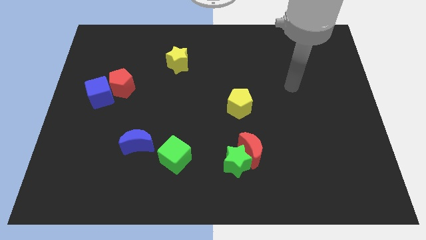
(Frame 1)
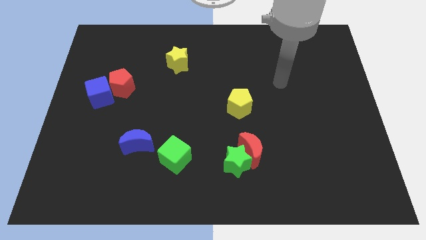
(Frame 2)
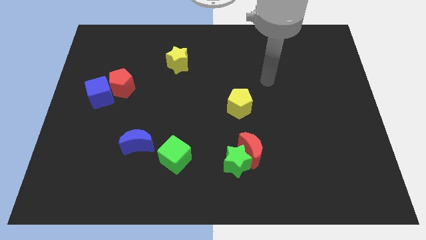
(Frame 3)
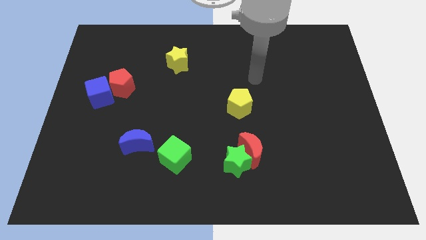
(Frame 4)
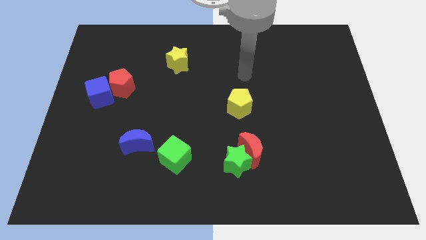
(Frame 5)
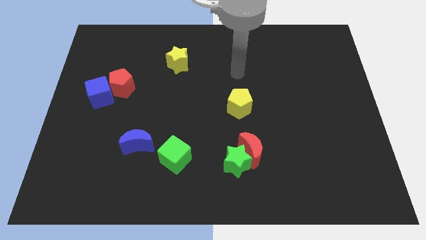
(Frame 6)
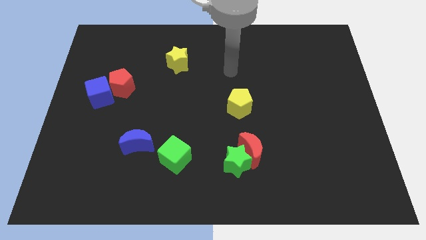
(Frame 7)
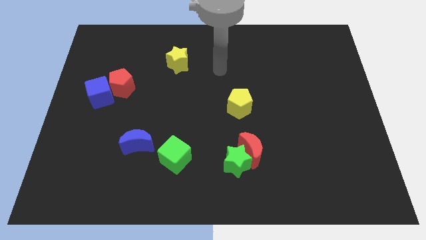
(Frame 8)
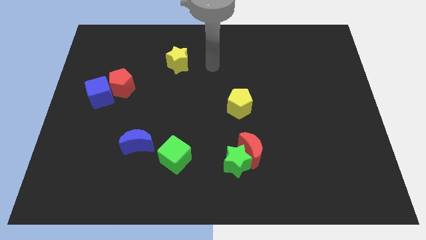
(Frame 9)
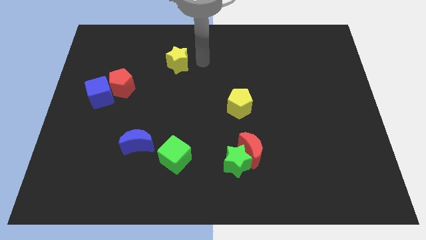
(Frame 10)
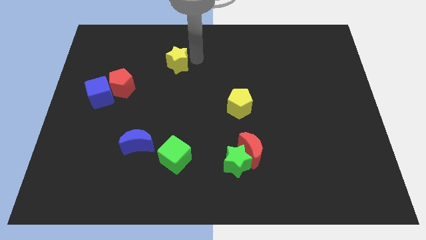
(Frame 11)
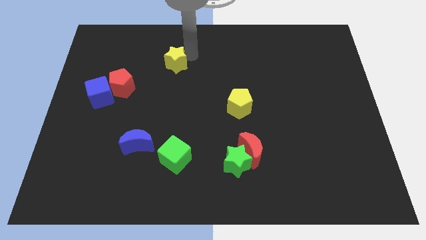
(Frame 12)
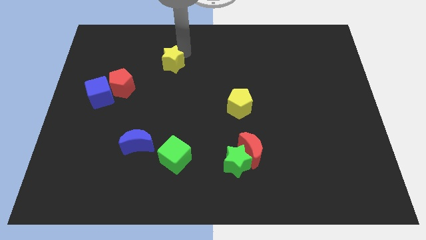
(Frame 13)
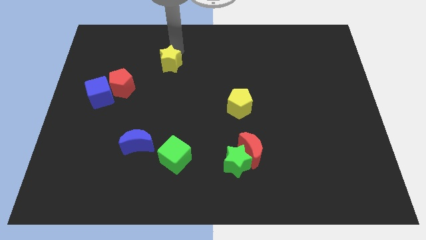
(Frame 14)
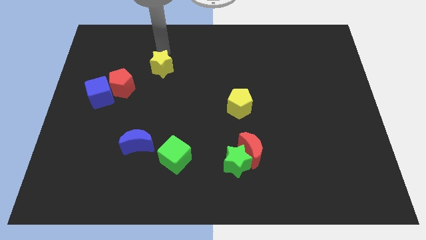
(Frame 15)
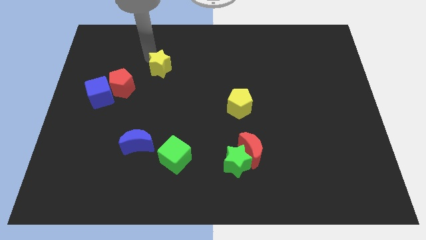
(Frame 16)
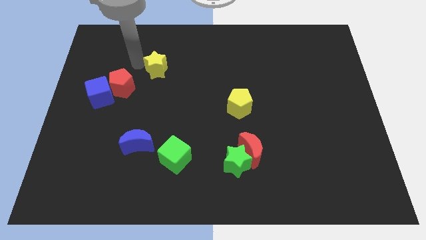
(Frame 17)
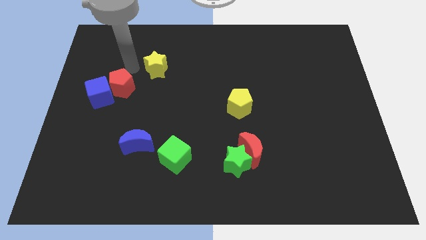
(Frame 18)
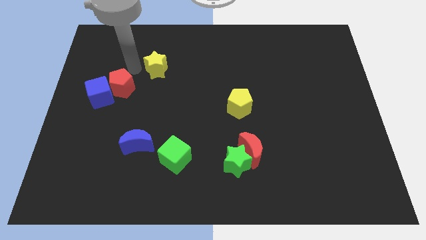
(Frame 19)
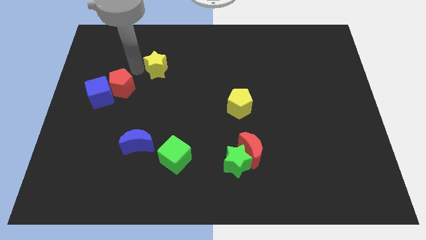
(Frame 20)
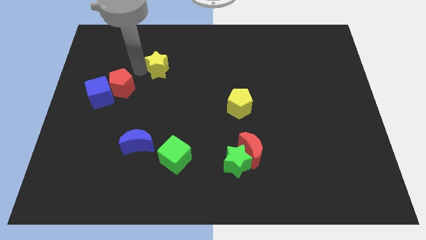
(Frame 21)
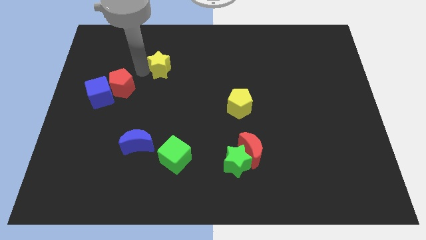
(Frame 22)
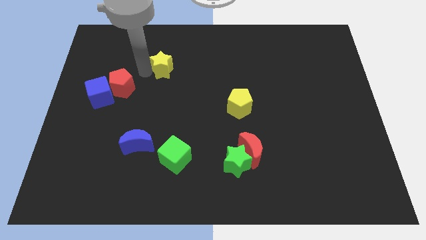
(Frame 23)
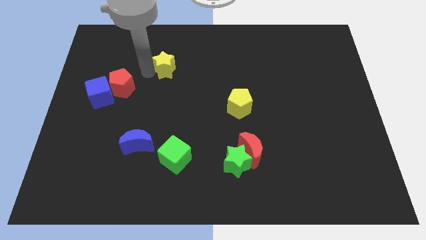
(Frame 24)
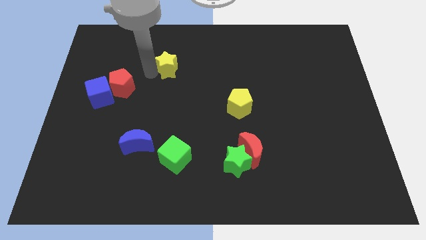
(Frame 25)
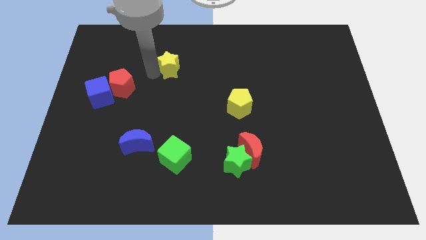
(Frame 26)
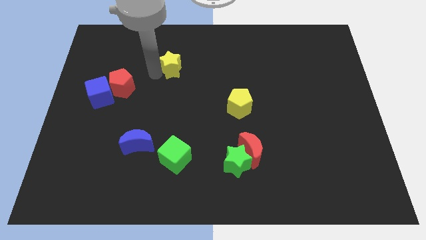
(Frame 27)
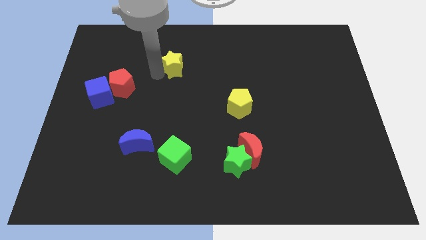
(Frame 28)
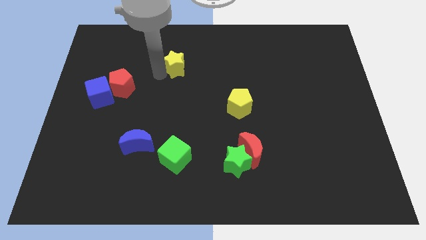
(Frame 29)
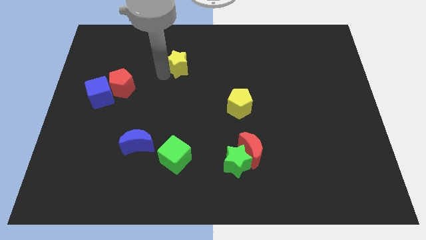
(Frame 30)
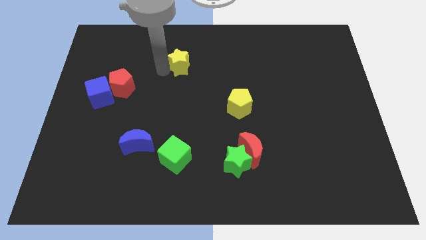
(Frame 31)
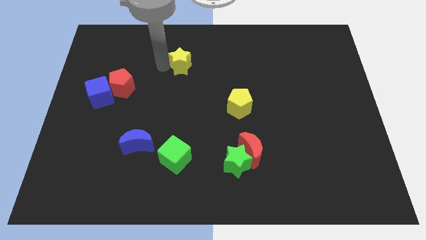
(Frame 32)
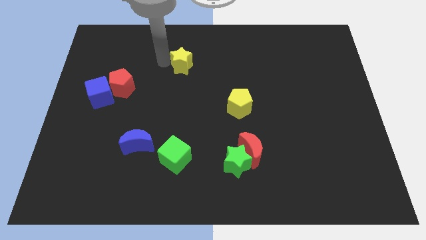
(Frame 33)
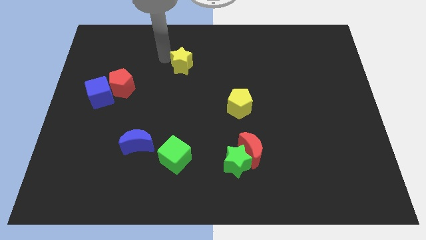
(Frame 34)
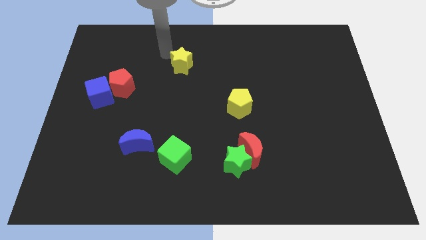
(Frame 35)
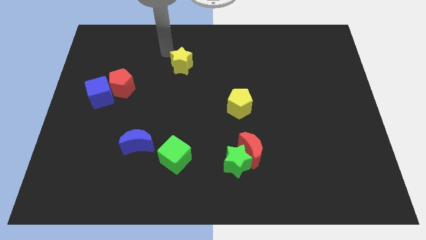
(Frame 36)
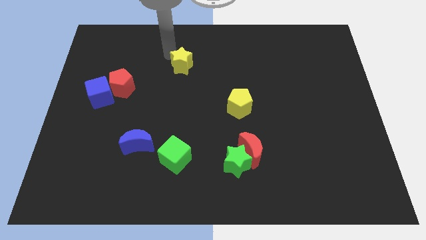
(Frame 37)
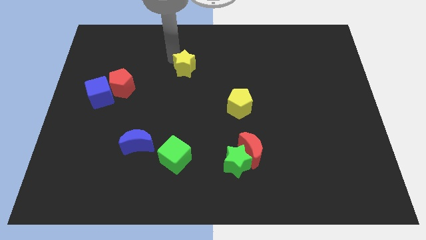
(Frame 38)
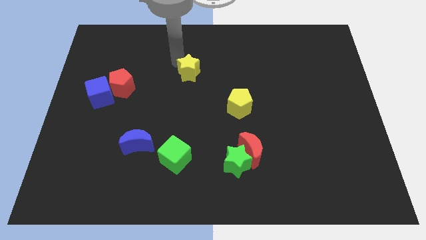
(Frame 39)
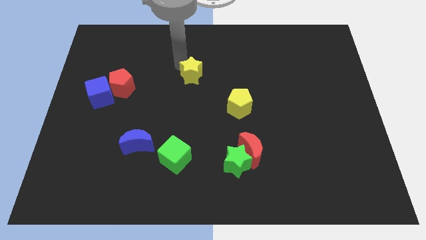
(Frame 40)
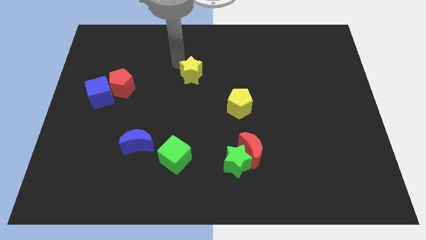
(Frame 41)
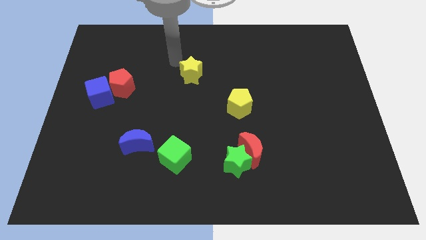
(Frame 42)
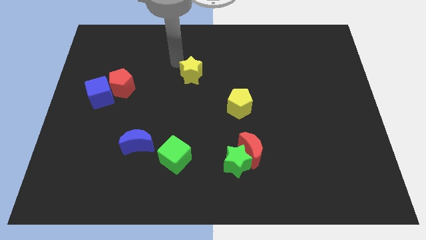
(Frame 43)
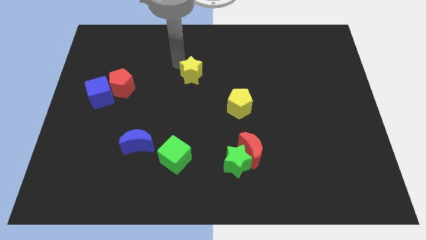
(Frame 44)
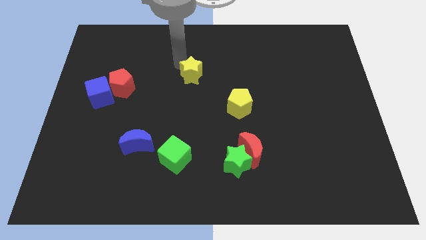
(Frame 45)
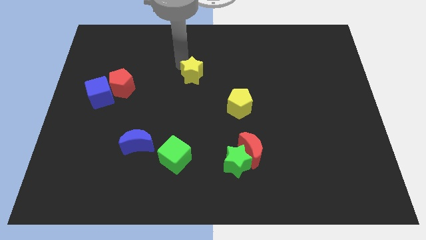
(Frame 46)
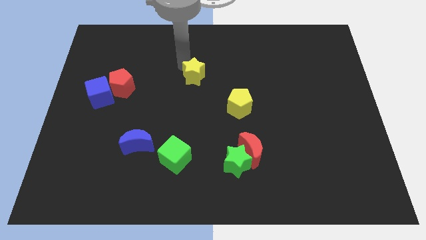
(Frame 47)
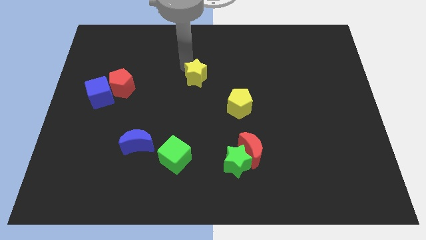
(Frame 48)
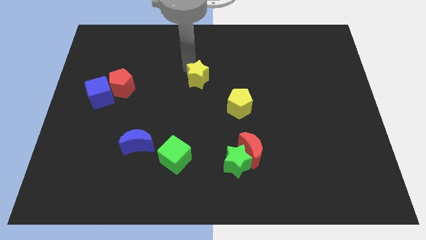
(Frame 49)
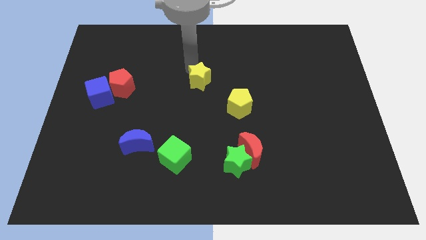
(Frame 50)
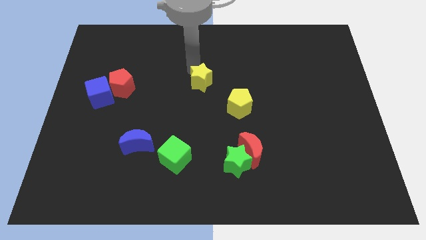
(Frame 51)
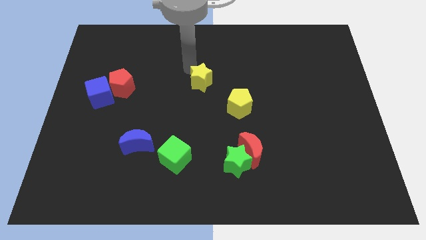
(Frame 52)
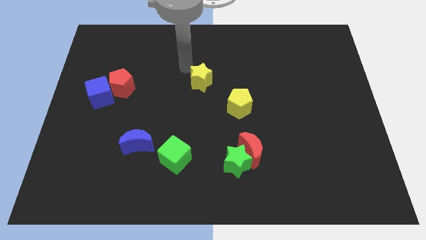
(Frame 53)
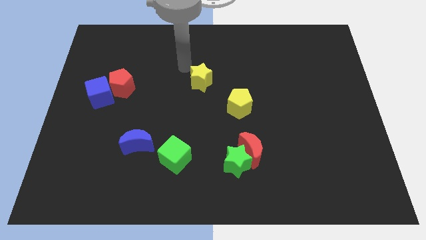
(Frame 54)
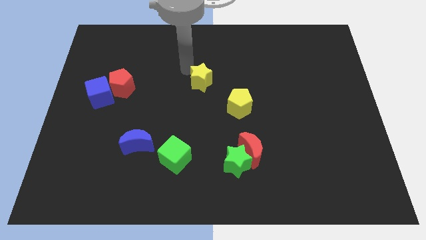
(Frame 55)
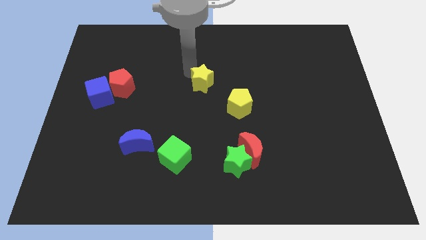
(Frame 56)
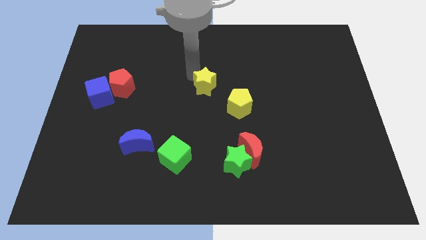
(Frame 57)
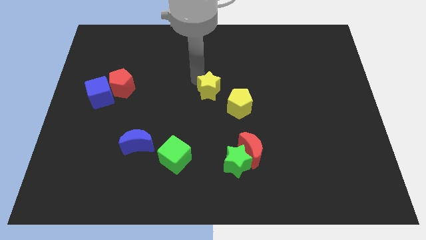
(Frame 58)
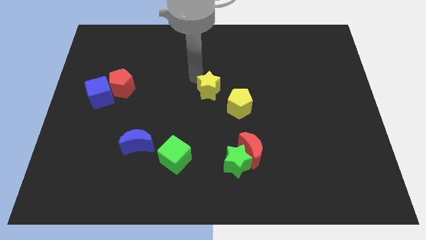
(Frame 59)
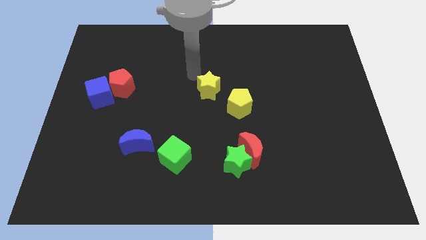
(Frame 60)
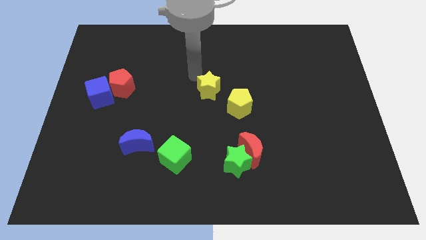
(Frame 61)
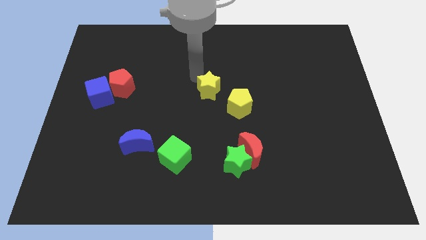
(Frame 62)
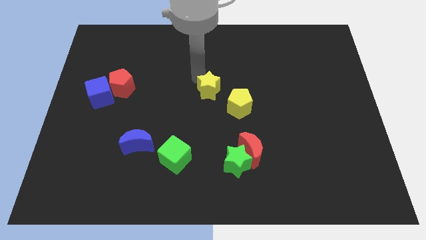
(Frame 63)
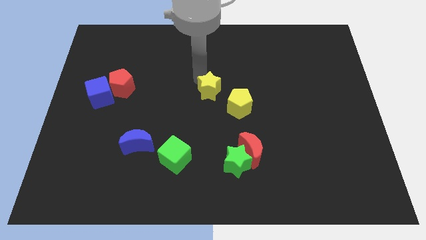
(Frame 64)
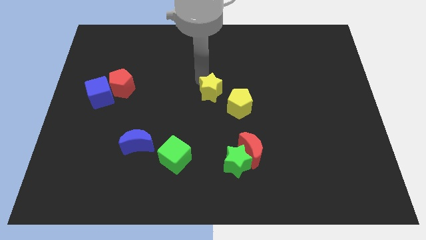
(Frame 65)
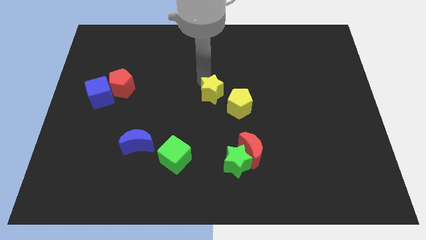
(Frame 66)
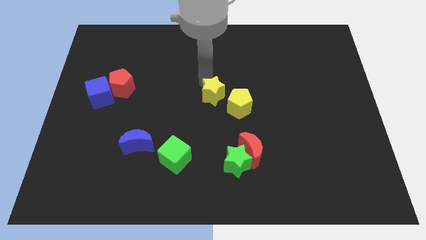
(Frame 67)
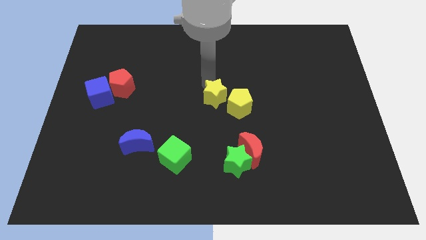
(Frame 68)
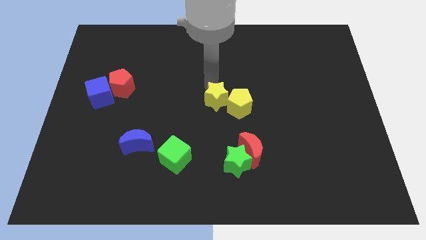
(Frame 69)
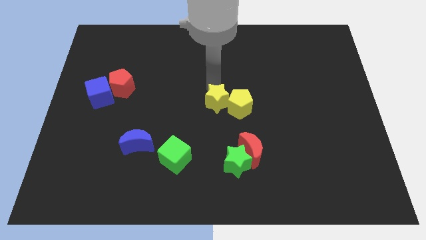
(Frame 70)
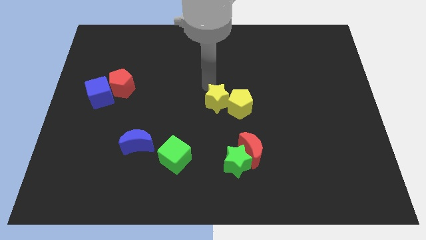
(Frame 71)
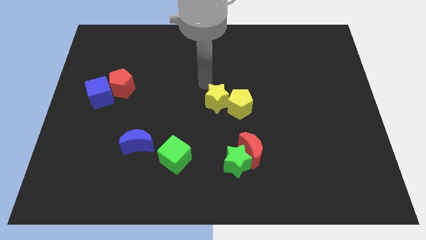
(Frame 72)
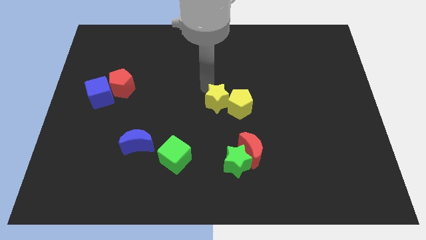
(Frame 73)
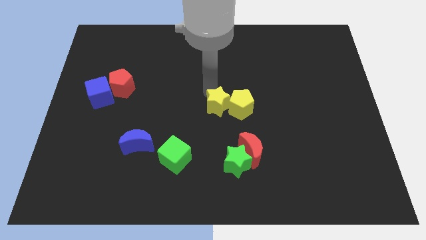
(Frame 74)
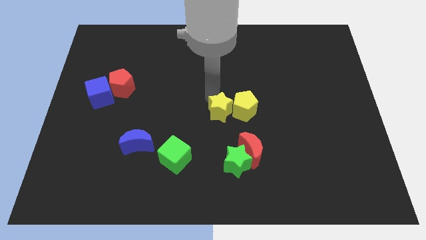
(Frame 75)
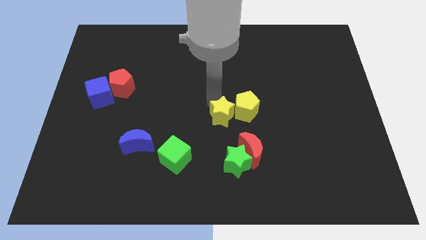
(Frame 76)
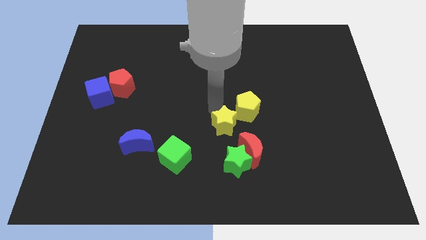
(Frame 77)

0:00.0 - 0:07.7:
push the yellow star down and to the right

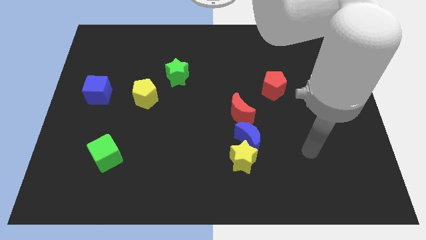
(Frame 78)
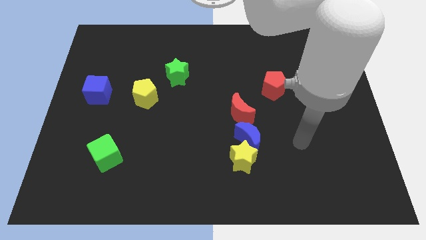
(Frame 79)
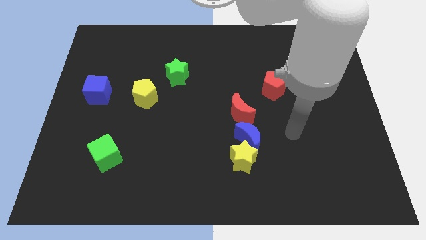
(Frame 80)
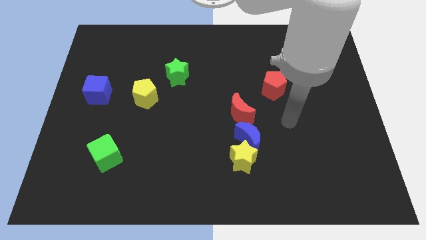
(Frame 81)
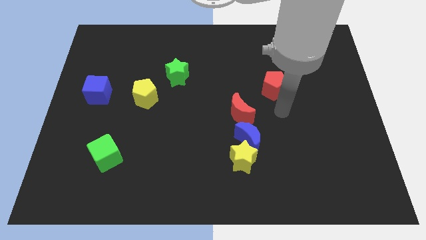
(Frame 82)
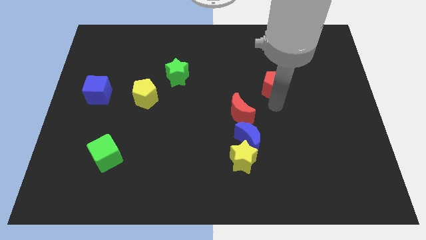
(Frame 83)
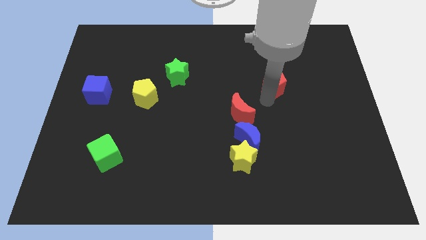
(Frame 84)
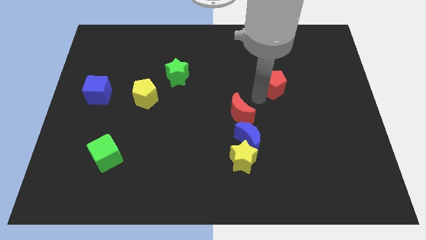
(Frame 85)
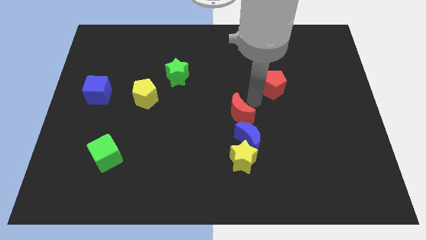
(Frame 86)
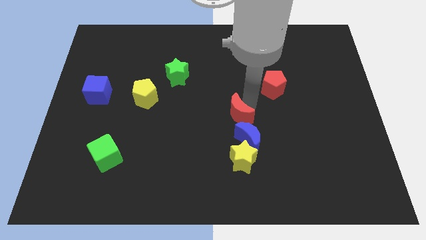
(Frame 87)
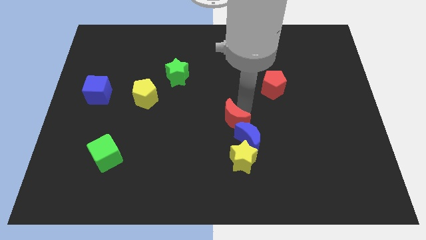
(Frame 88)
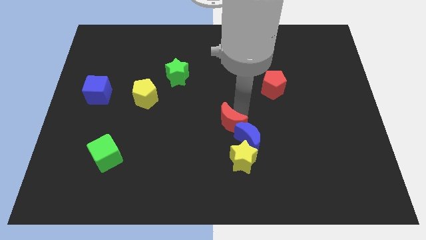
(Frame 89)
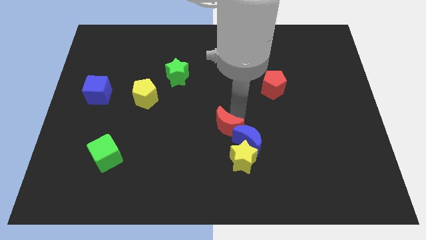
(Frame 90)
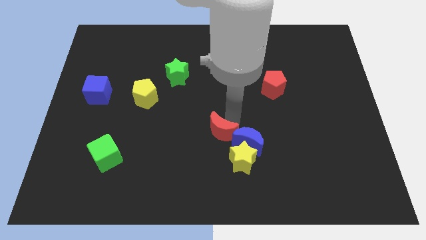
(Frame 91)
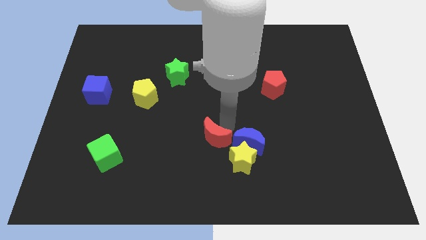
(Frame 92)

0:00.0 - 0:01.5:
move the red moon a bit down and to the left
